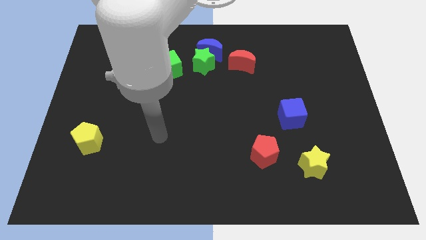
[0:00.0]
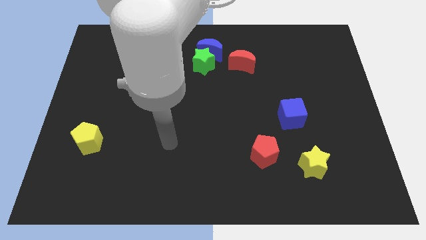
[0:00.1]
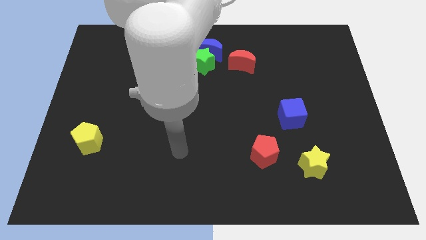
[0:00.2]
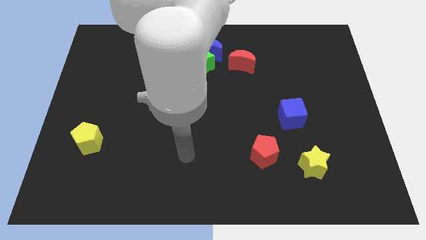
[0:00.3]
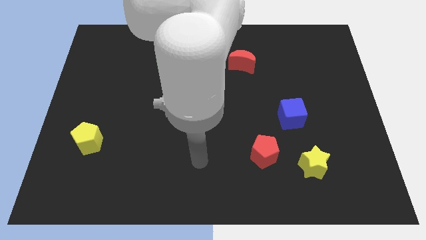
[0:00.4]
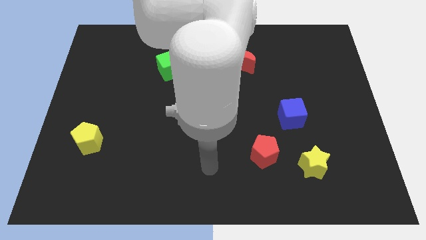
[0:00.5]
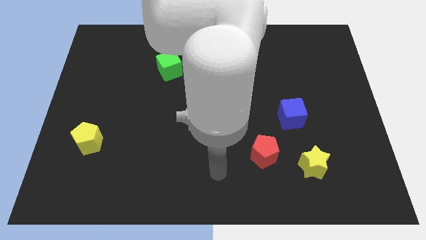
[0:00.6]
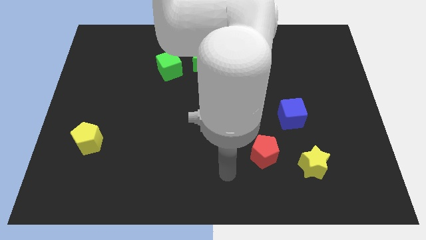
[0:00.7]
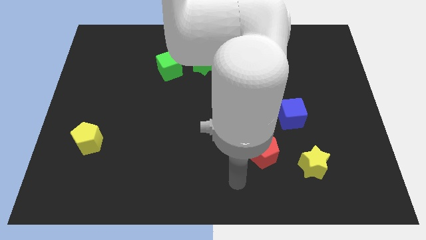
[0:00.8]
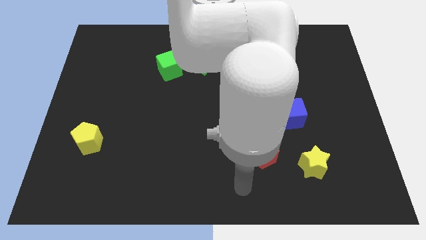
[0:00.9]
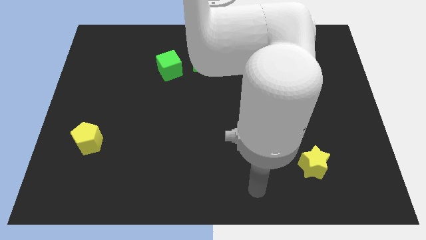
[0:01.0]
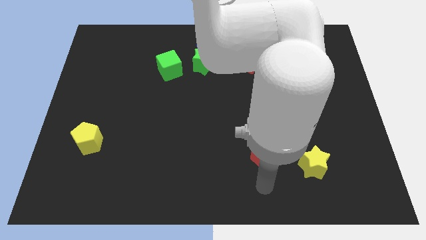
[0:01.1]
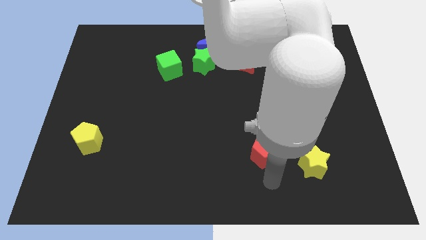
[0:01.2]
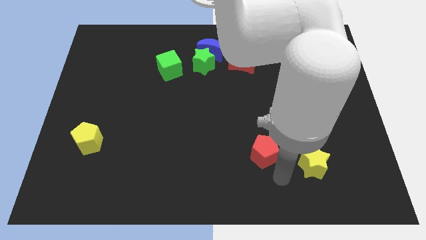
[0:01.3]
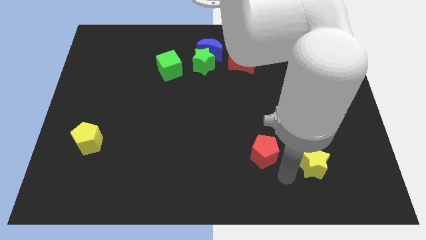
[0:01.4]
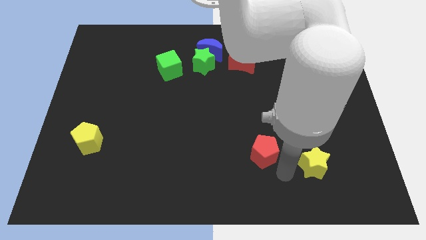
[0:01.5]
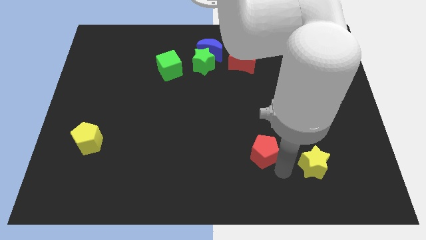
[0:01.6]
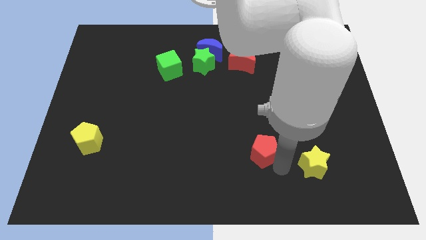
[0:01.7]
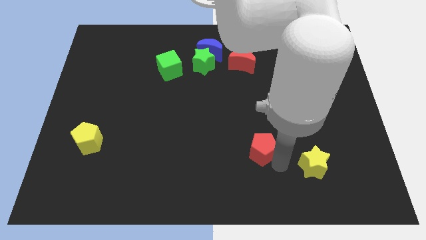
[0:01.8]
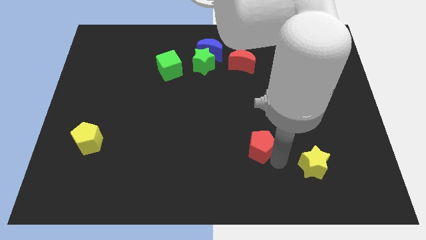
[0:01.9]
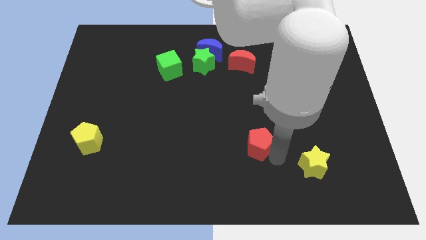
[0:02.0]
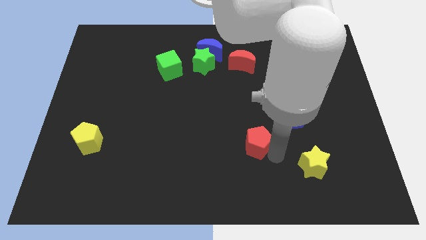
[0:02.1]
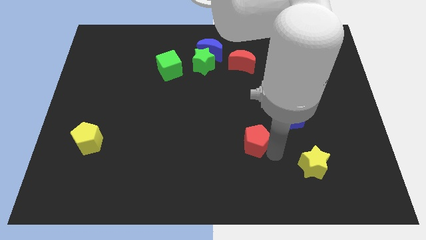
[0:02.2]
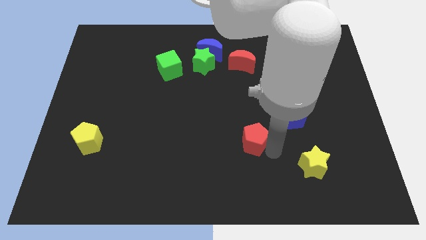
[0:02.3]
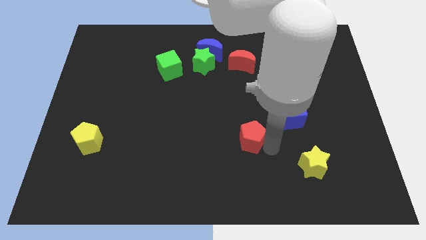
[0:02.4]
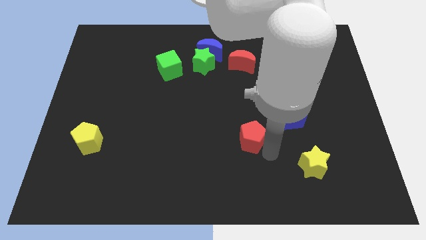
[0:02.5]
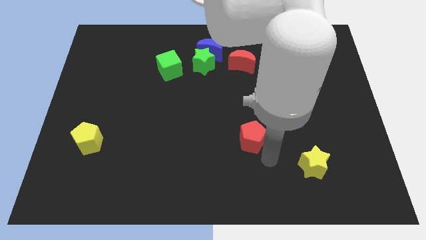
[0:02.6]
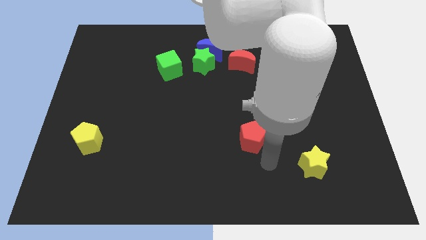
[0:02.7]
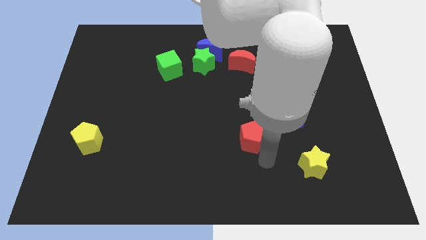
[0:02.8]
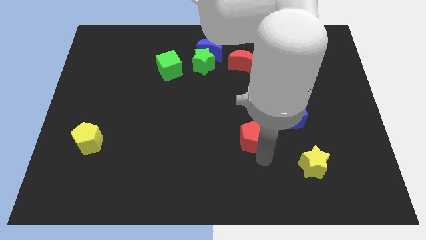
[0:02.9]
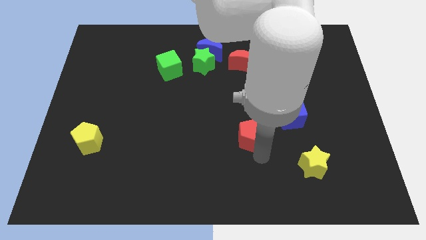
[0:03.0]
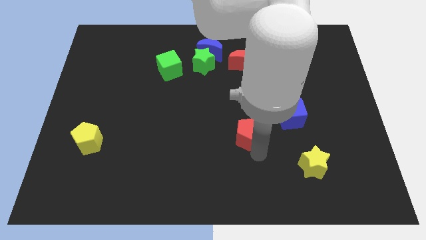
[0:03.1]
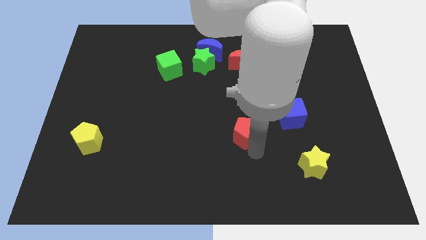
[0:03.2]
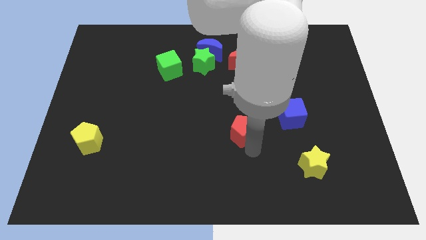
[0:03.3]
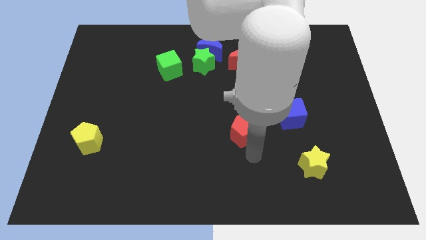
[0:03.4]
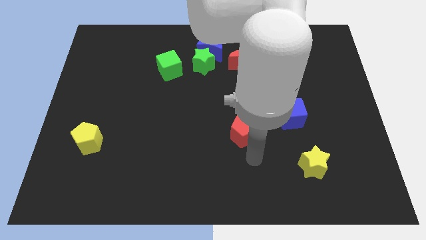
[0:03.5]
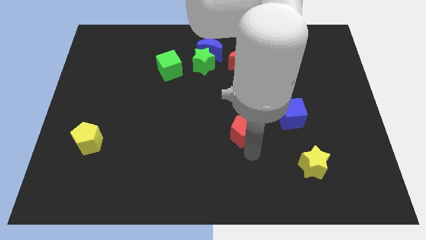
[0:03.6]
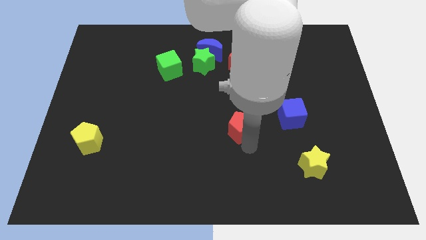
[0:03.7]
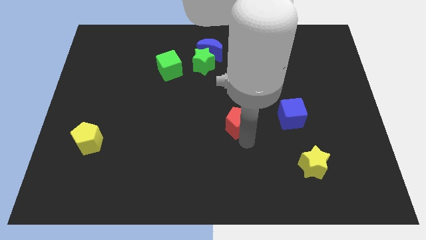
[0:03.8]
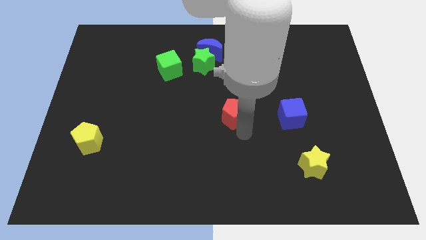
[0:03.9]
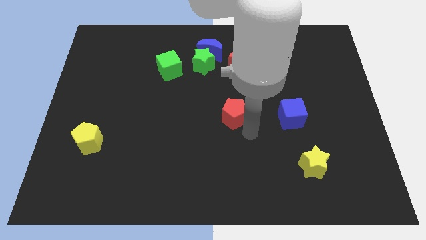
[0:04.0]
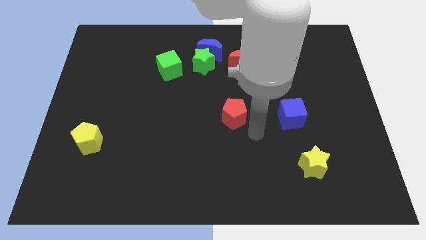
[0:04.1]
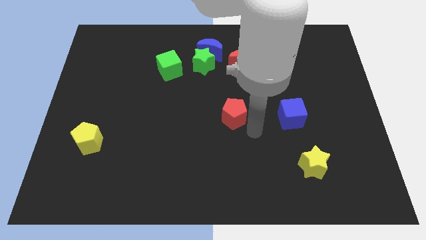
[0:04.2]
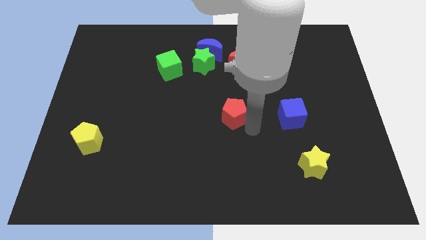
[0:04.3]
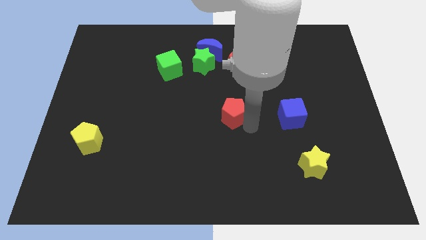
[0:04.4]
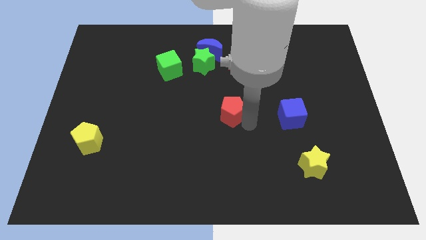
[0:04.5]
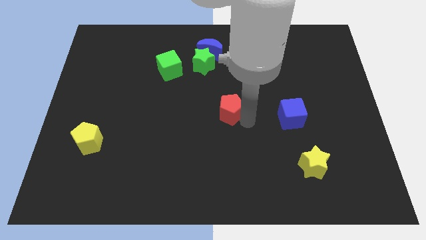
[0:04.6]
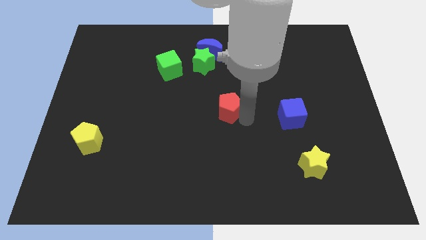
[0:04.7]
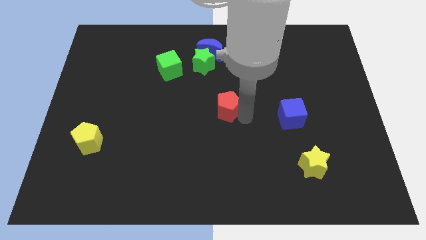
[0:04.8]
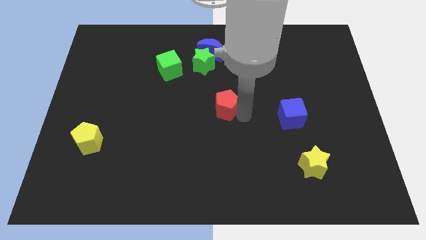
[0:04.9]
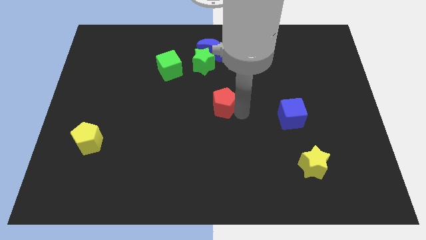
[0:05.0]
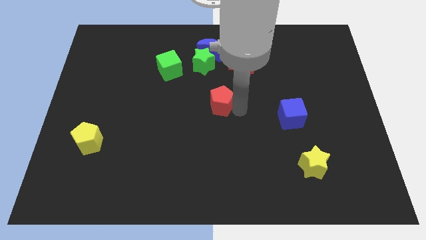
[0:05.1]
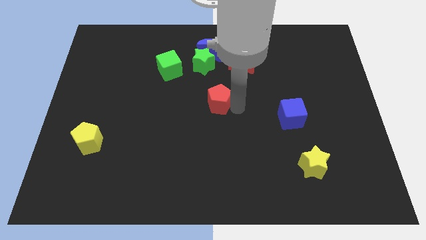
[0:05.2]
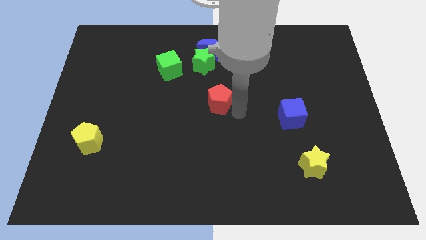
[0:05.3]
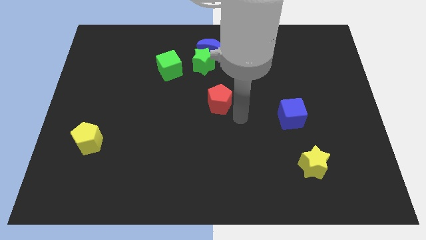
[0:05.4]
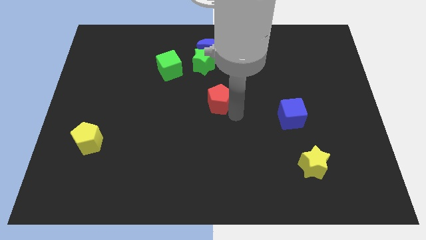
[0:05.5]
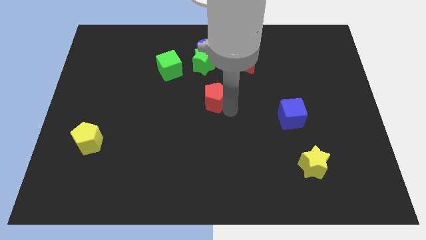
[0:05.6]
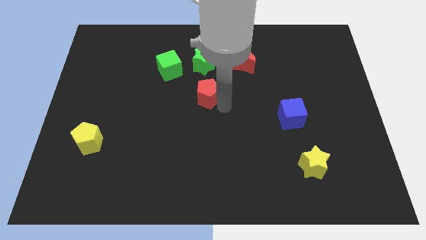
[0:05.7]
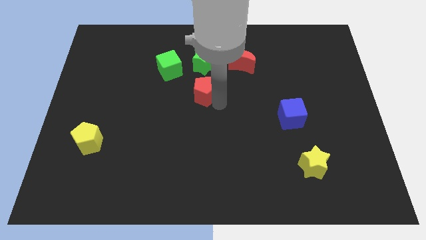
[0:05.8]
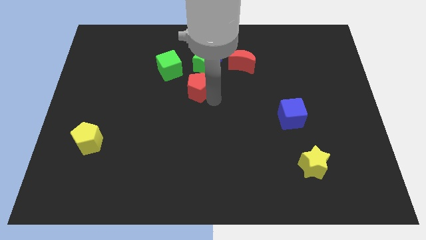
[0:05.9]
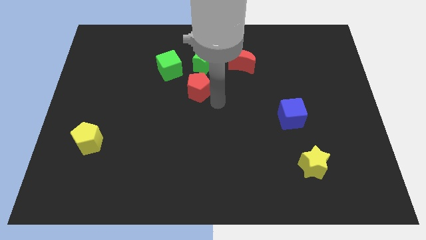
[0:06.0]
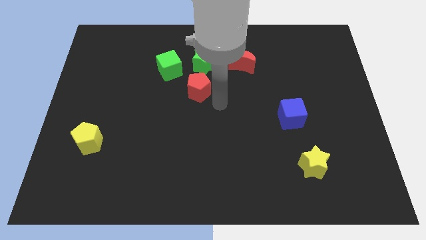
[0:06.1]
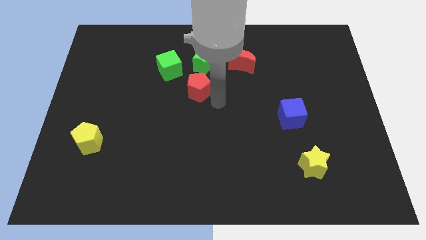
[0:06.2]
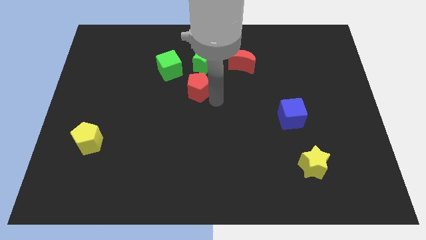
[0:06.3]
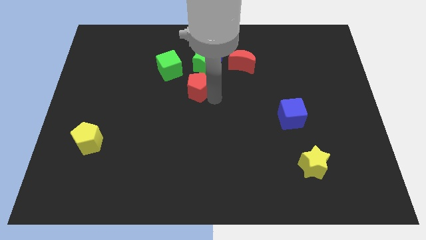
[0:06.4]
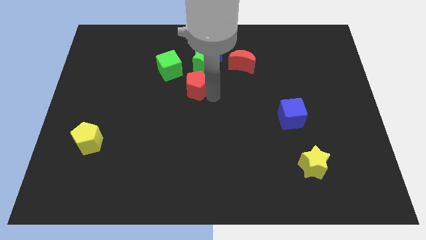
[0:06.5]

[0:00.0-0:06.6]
move the red pentagon to the bottom left side of the green star

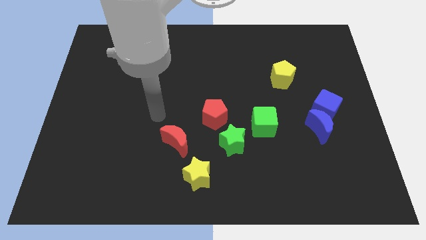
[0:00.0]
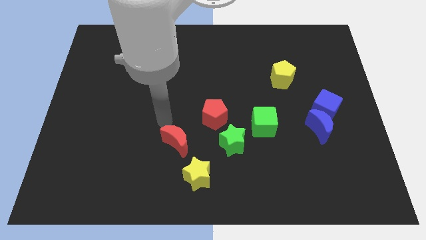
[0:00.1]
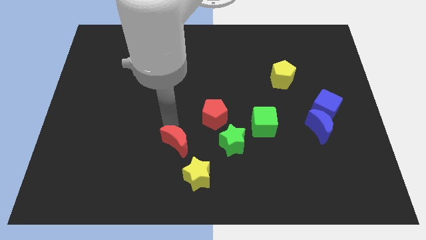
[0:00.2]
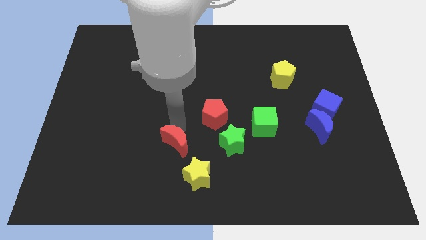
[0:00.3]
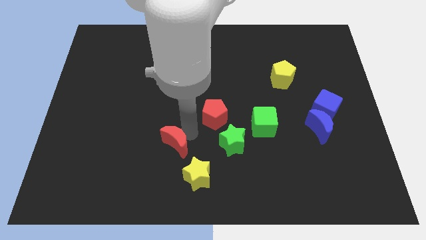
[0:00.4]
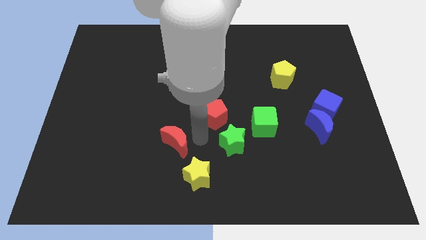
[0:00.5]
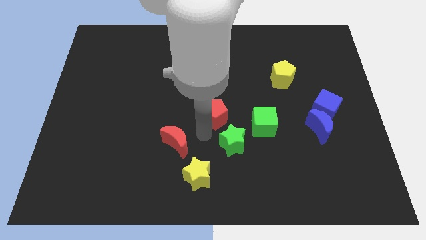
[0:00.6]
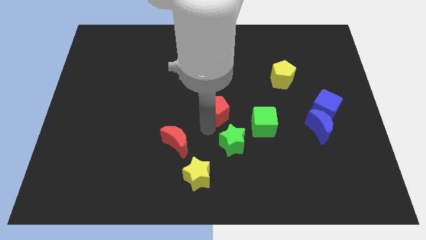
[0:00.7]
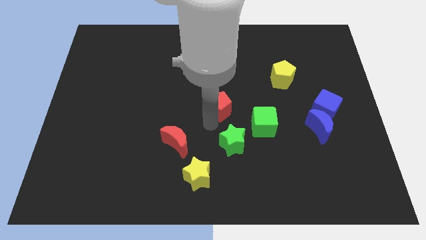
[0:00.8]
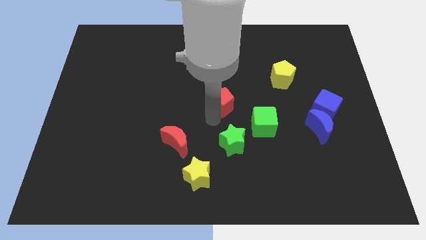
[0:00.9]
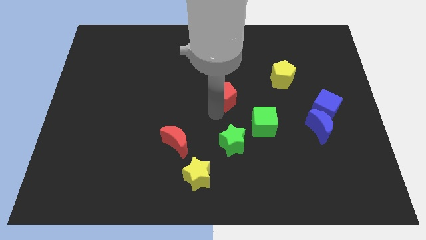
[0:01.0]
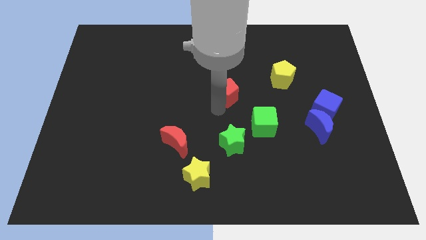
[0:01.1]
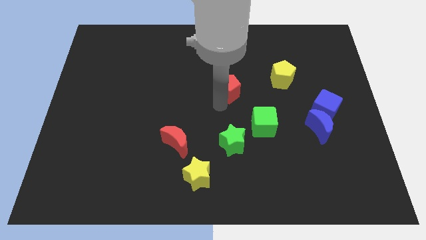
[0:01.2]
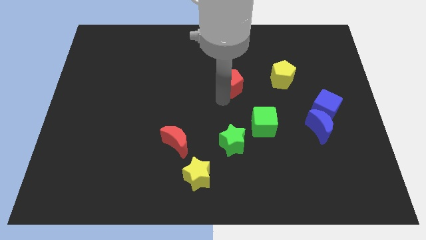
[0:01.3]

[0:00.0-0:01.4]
move the red pentagon to the left of the yellow pentagon
